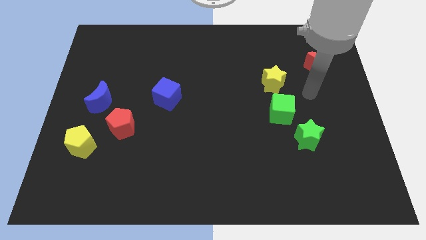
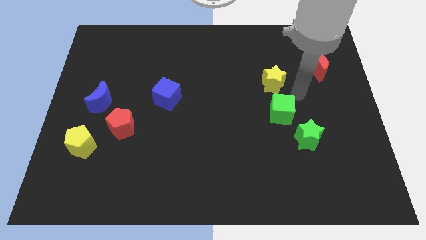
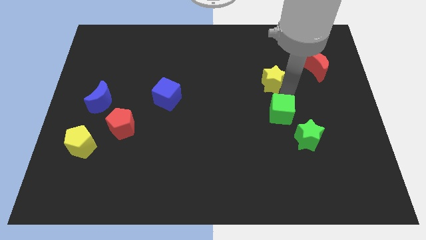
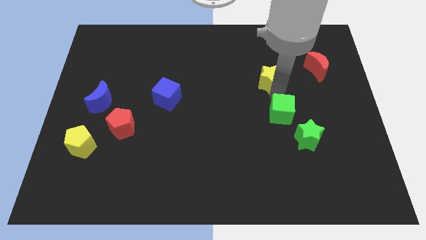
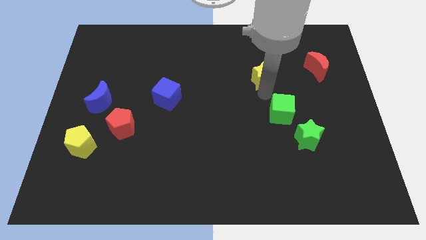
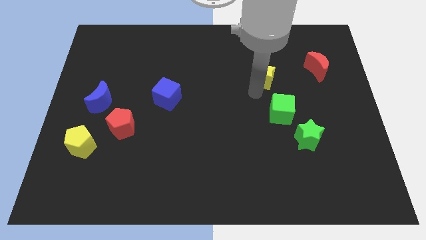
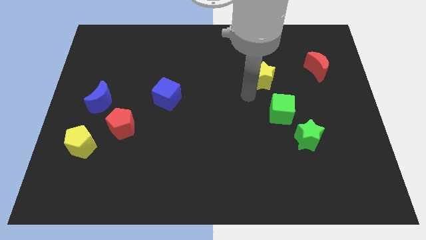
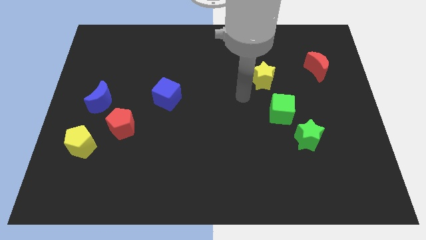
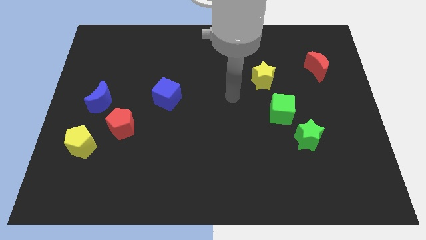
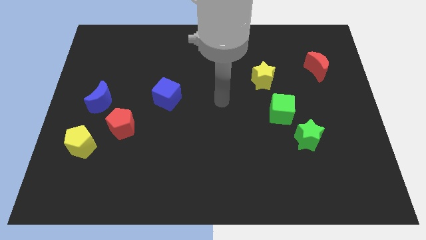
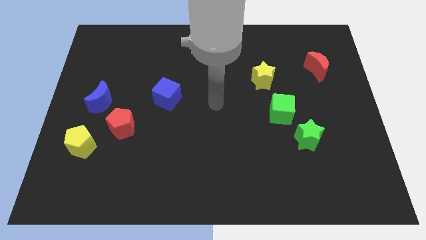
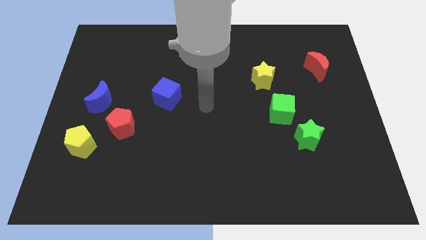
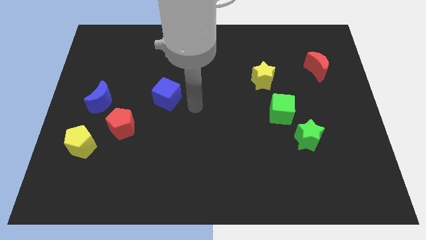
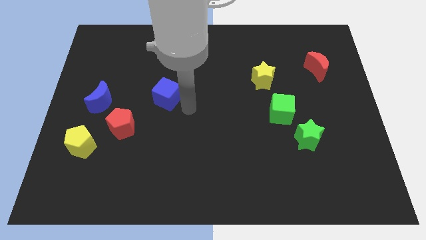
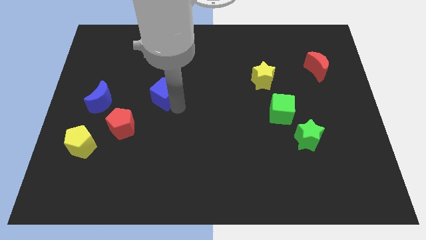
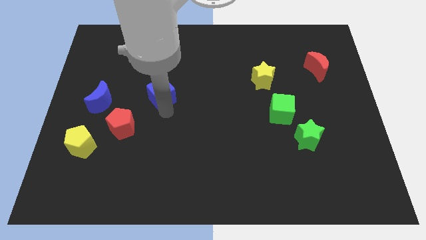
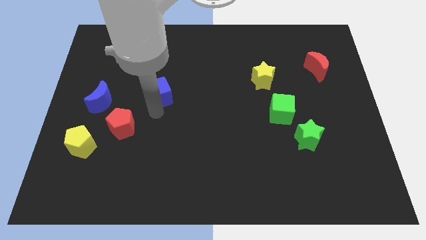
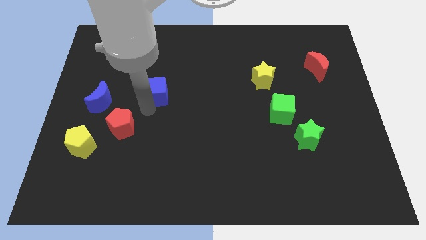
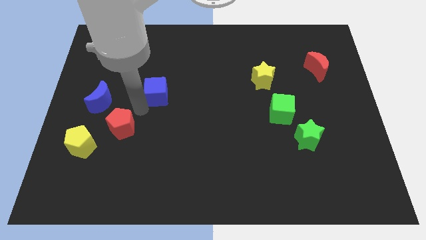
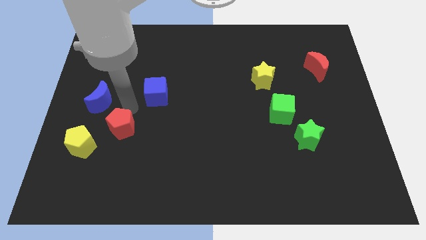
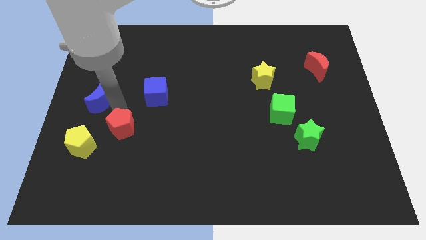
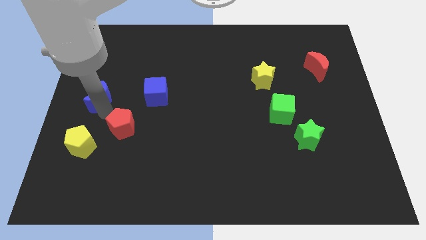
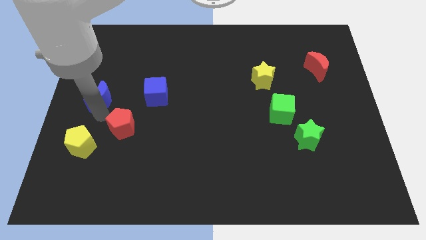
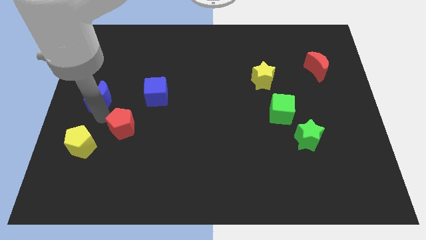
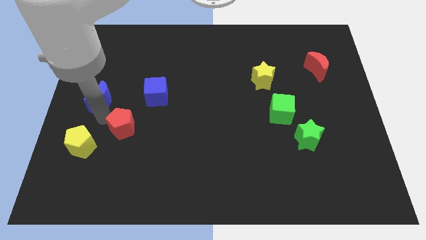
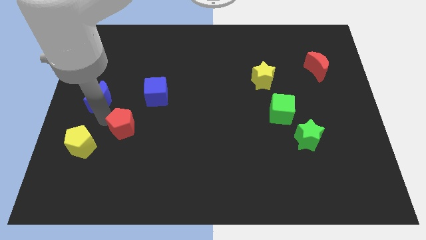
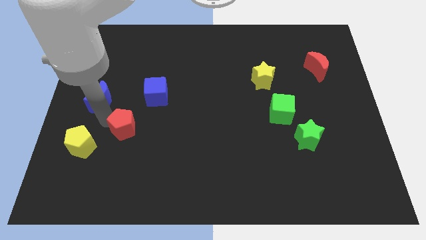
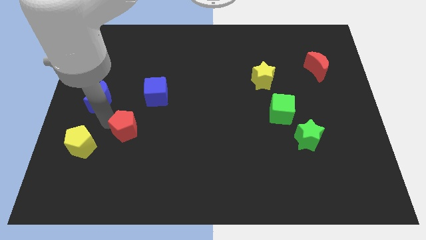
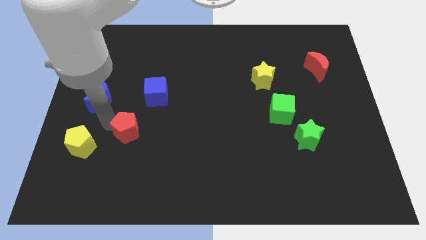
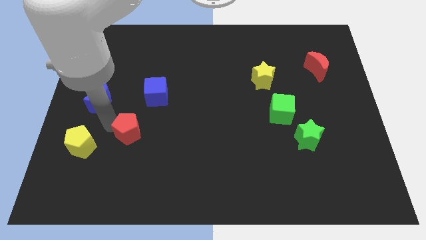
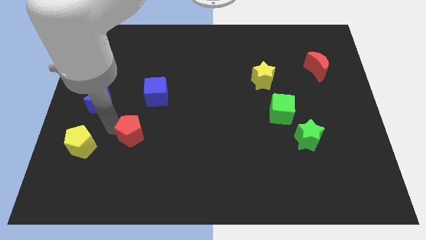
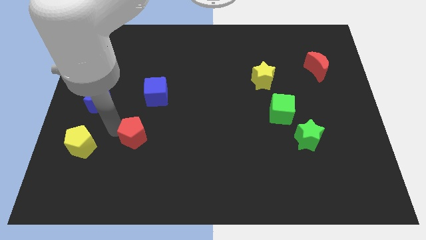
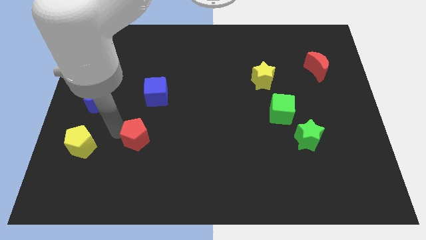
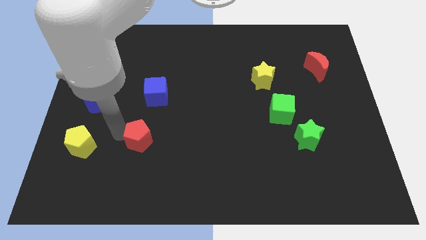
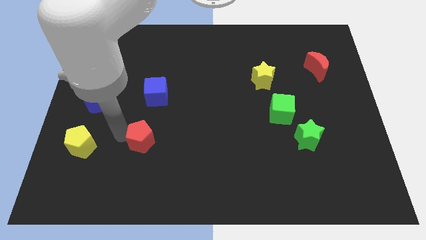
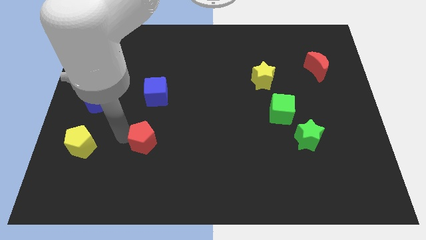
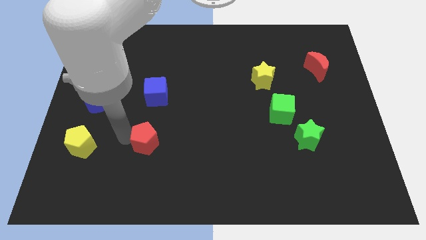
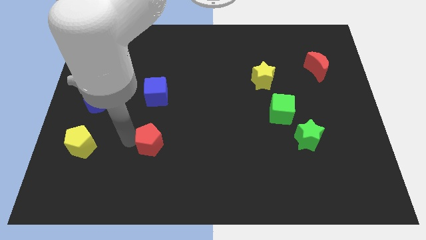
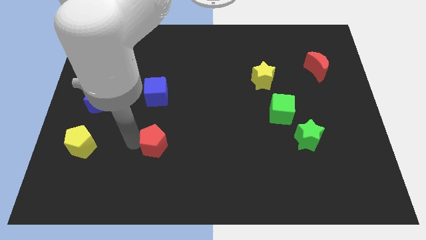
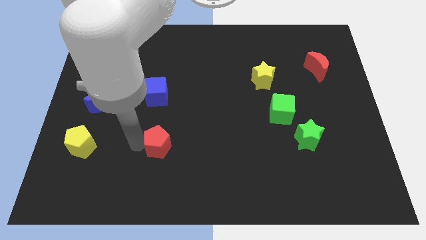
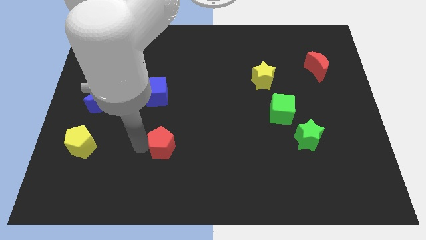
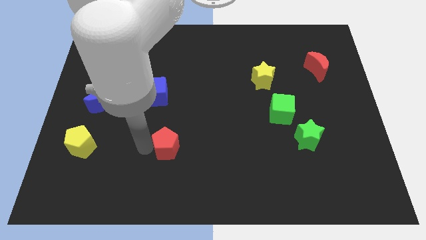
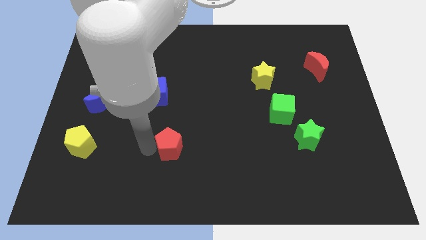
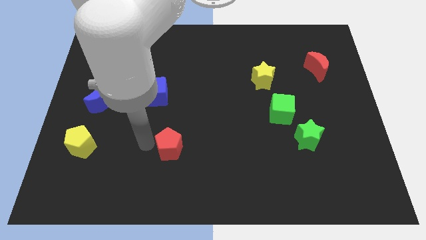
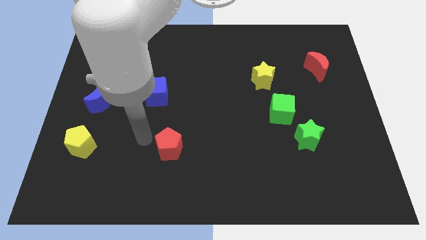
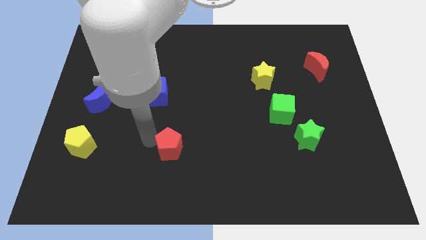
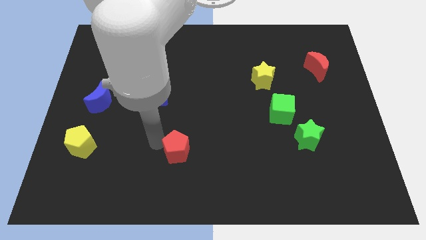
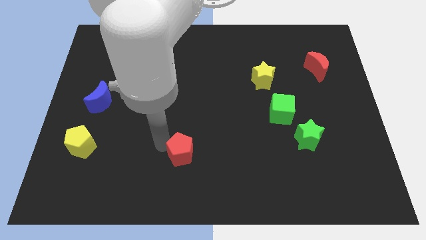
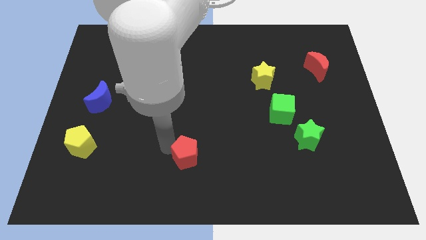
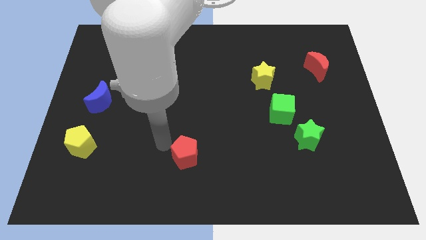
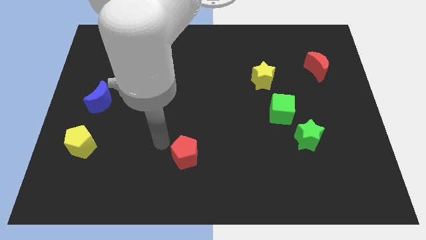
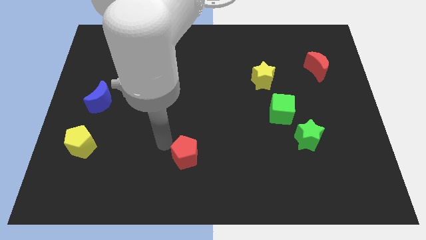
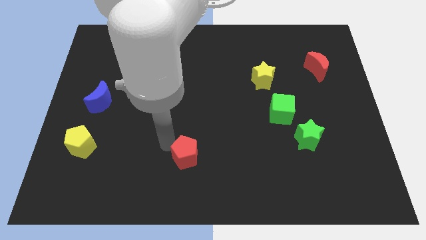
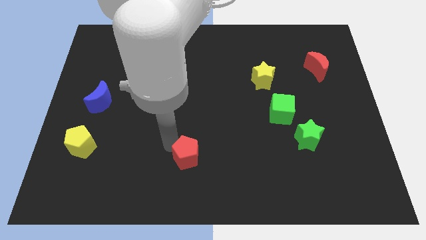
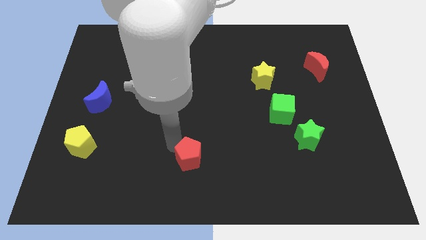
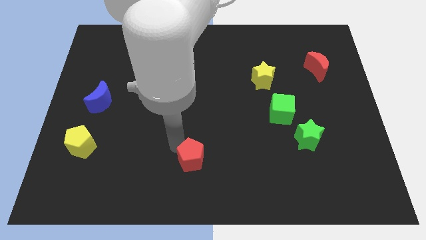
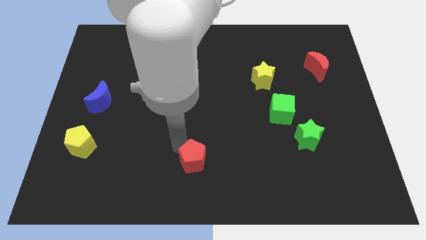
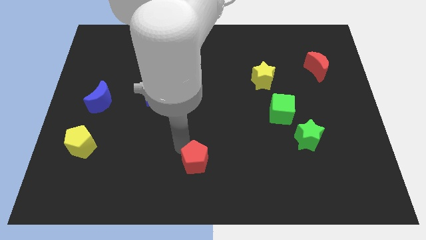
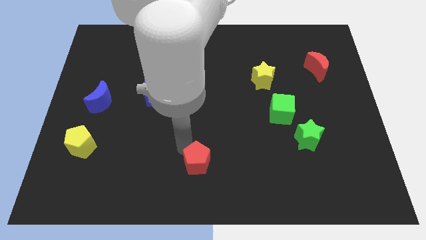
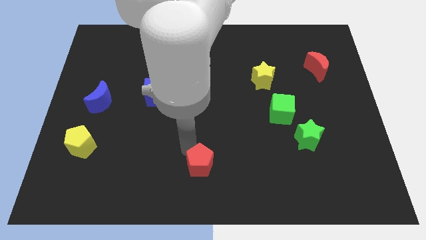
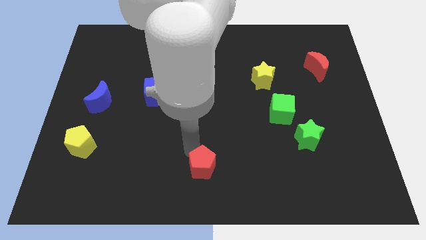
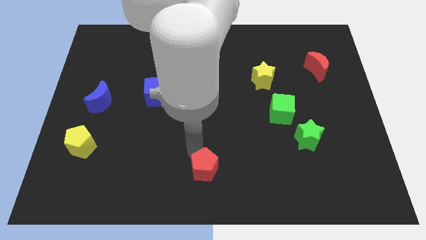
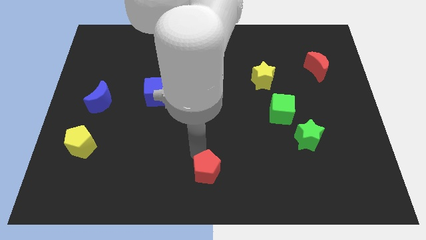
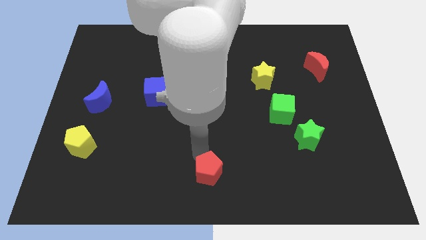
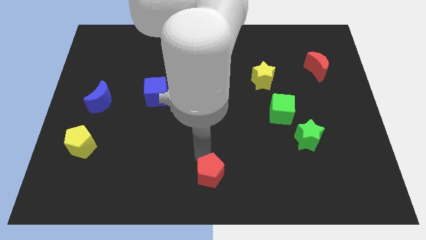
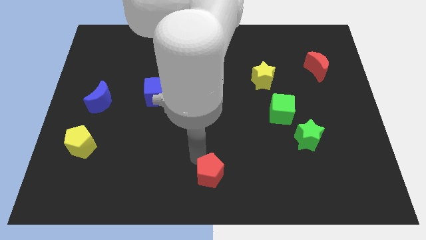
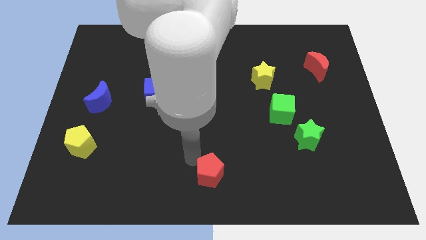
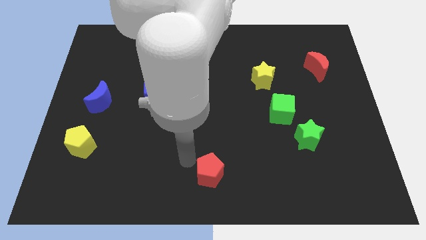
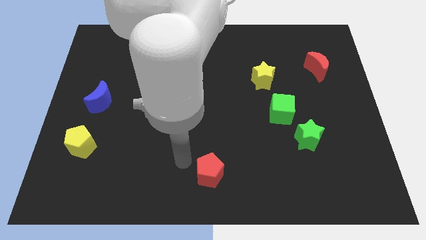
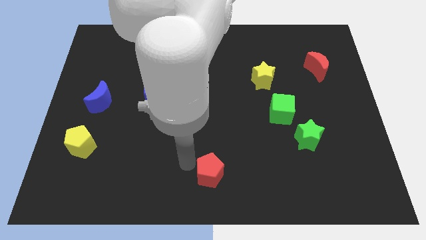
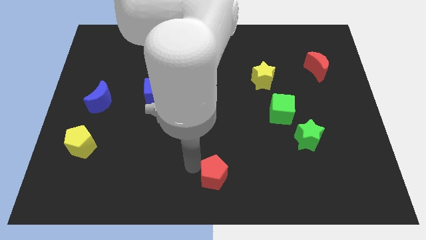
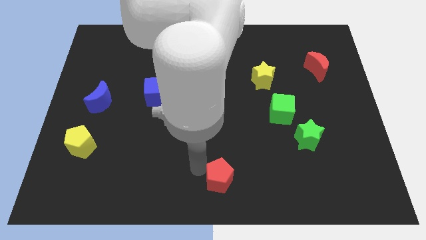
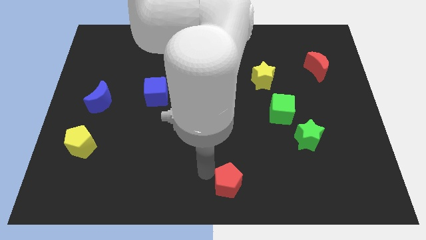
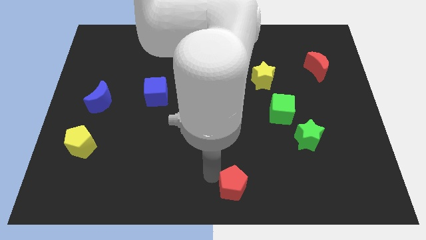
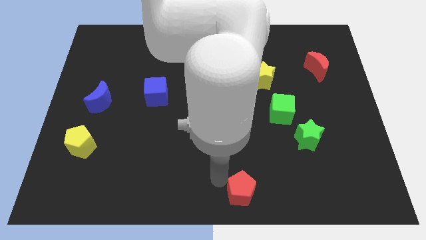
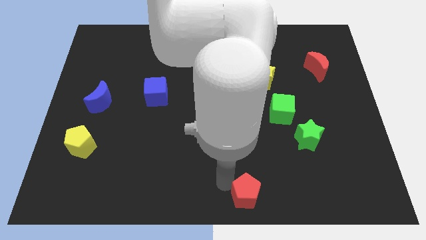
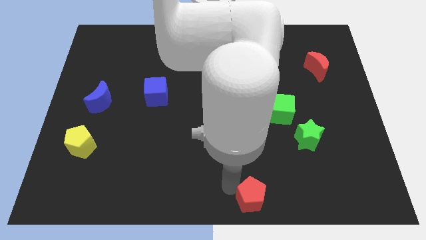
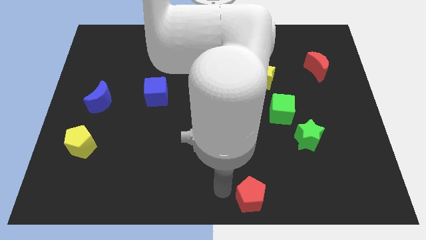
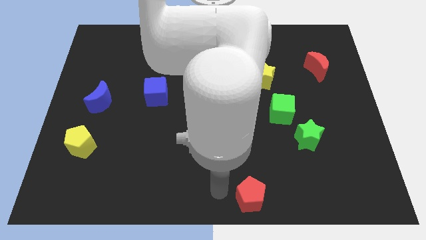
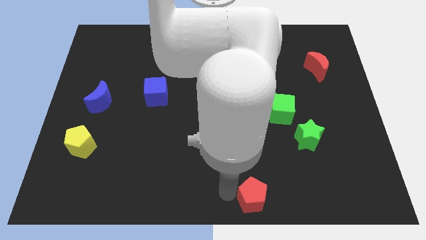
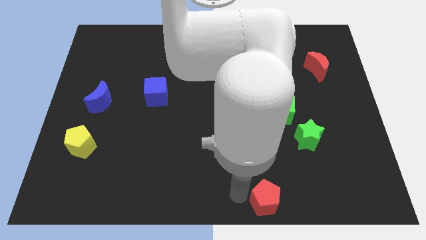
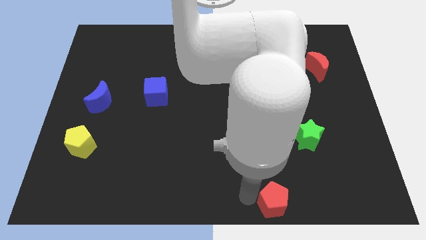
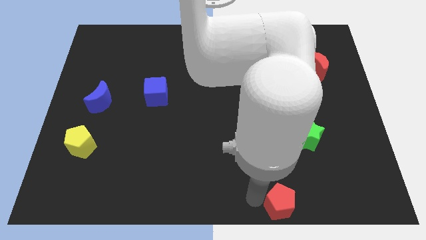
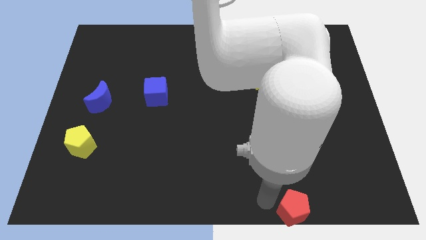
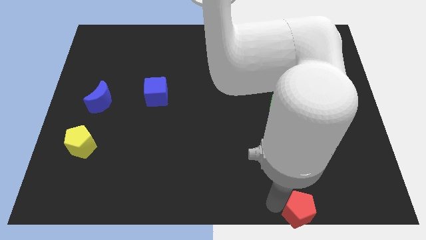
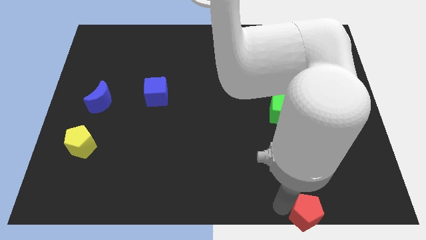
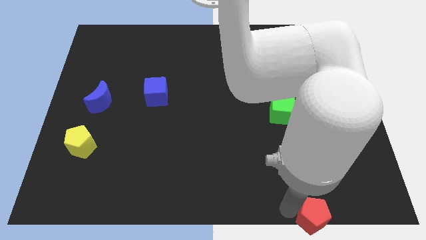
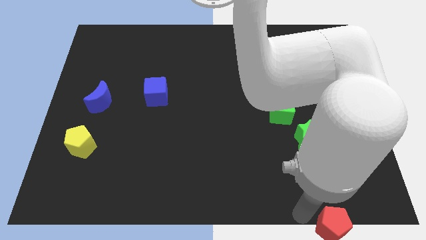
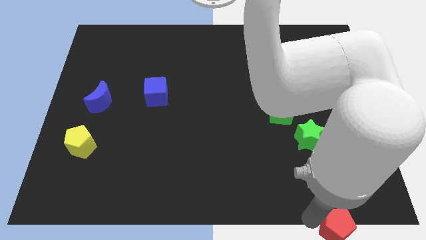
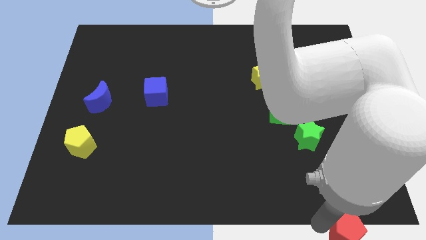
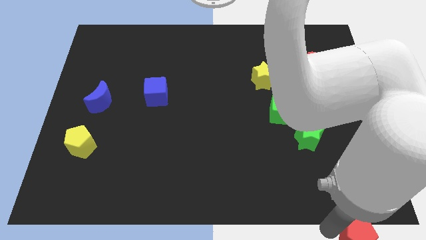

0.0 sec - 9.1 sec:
move the red pentagon to the lower right corner
